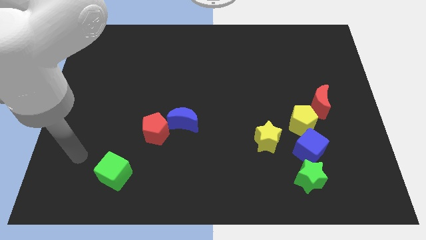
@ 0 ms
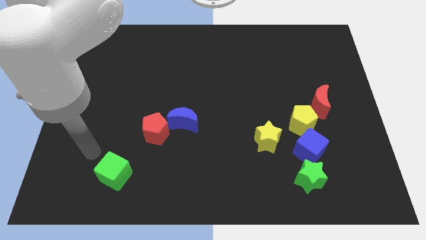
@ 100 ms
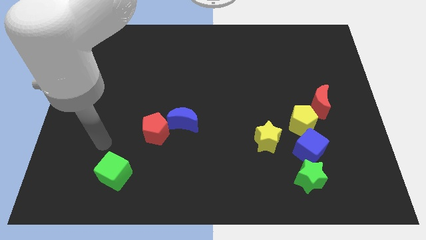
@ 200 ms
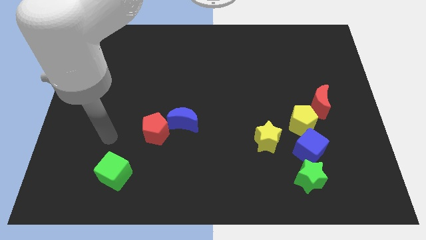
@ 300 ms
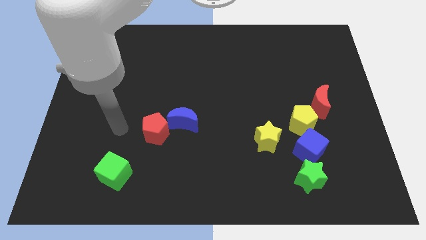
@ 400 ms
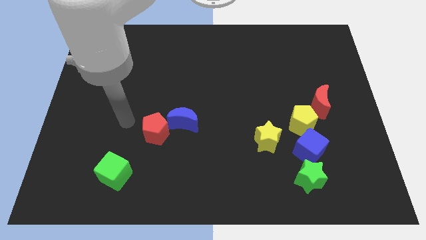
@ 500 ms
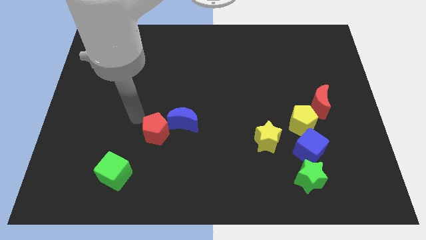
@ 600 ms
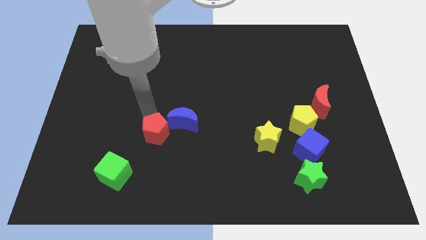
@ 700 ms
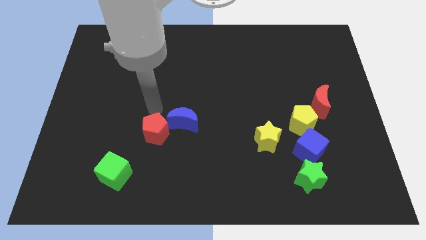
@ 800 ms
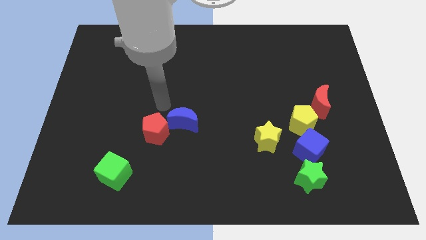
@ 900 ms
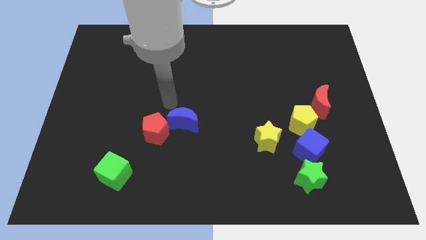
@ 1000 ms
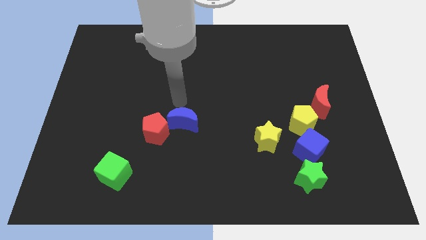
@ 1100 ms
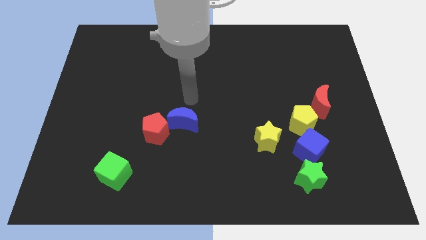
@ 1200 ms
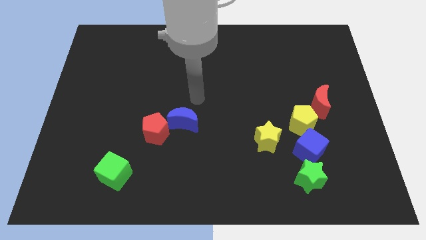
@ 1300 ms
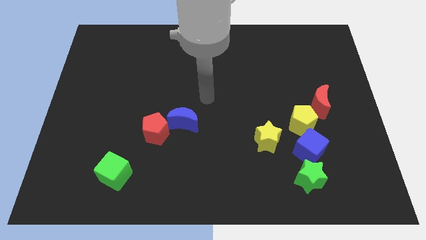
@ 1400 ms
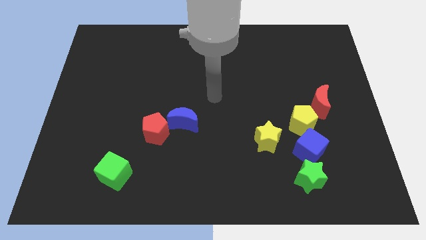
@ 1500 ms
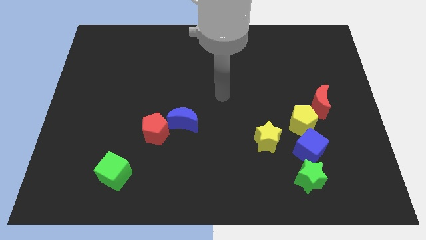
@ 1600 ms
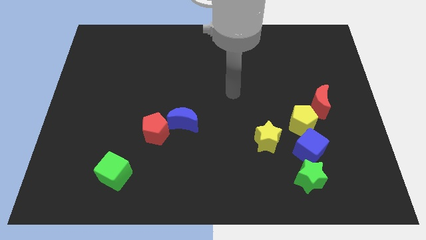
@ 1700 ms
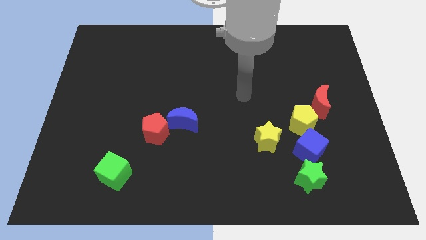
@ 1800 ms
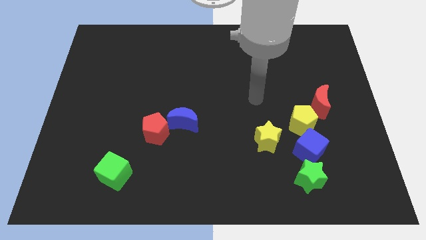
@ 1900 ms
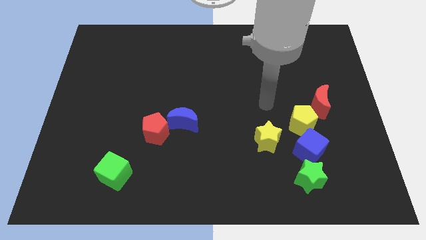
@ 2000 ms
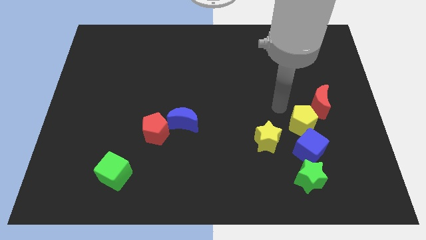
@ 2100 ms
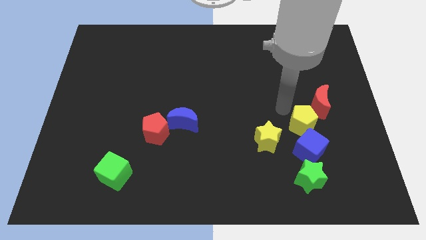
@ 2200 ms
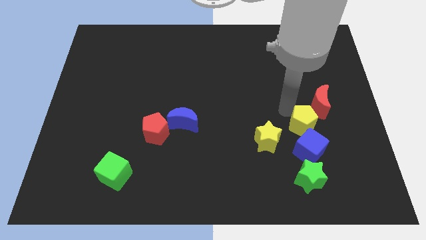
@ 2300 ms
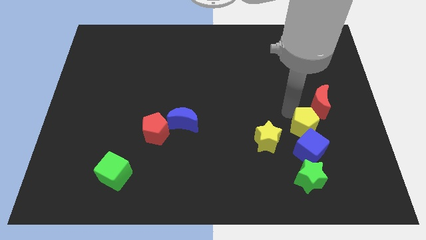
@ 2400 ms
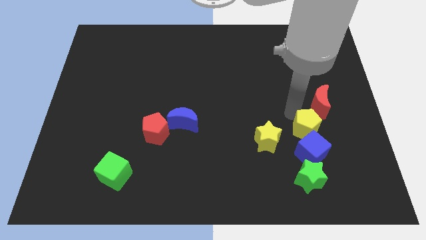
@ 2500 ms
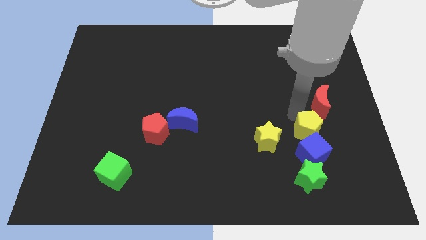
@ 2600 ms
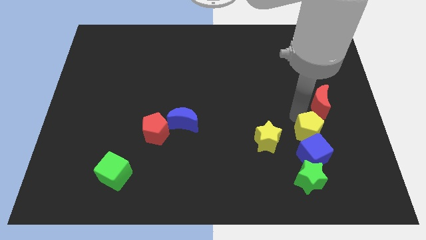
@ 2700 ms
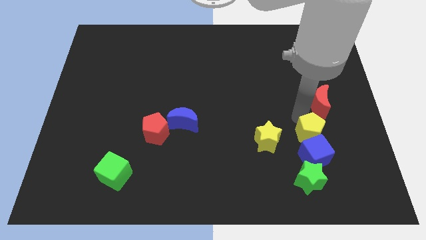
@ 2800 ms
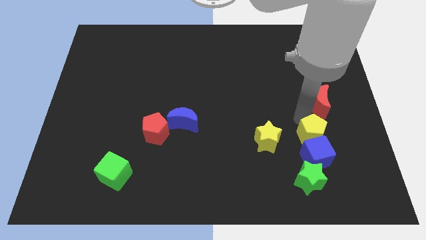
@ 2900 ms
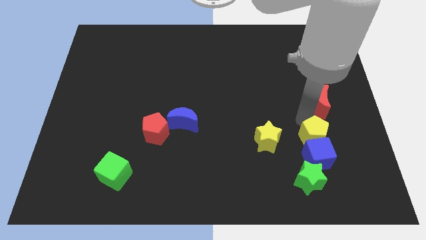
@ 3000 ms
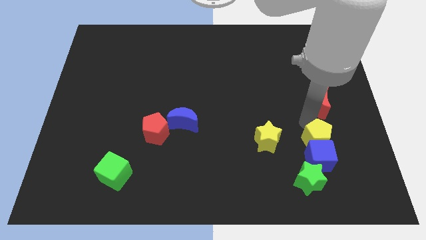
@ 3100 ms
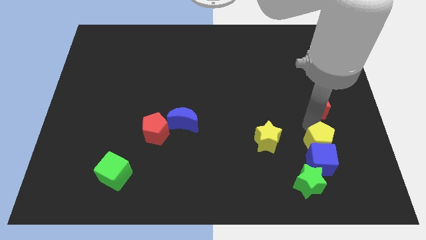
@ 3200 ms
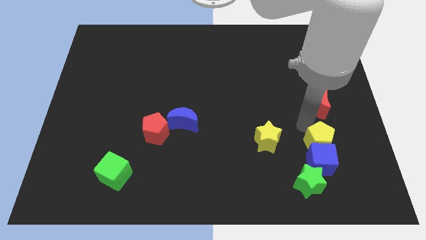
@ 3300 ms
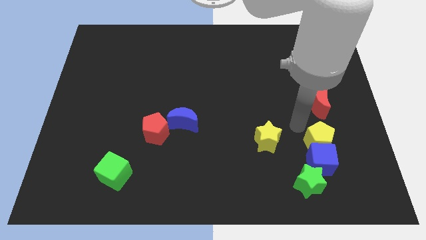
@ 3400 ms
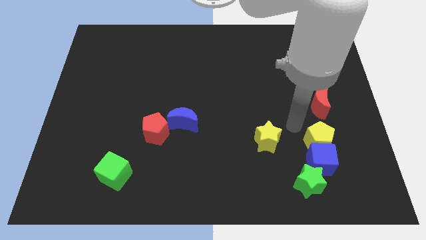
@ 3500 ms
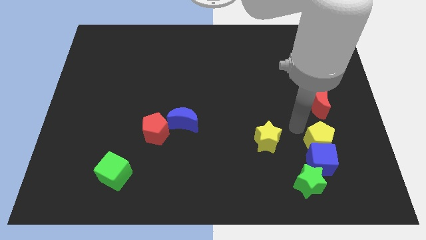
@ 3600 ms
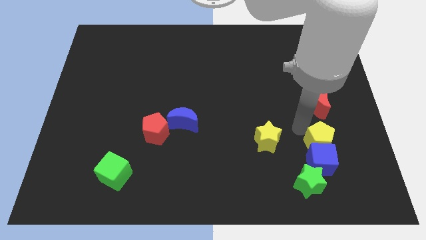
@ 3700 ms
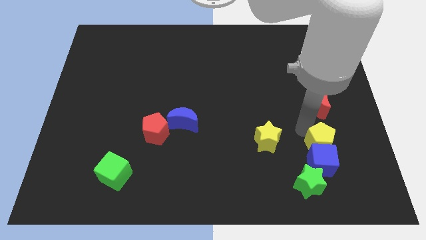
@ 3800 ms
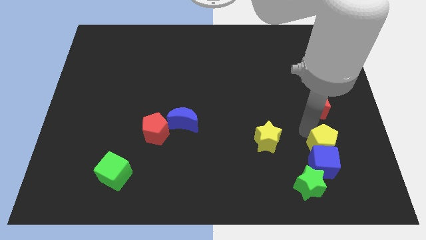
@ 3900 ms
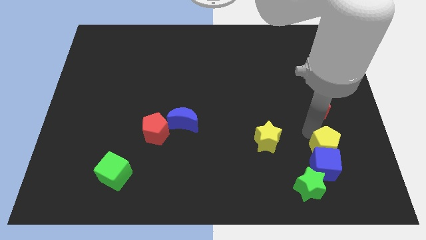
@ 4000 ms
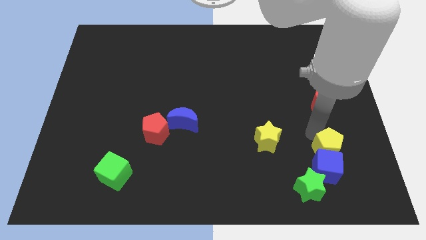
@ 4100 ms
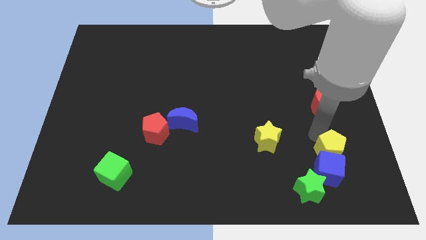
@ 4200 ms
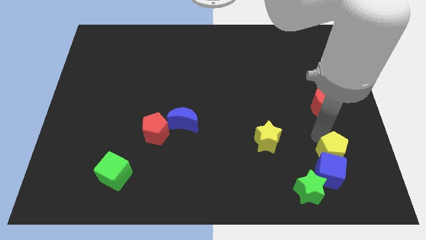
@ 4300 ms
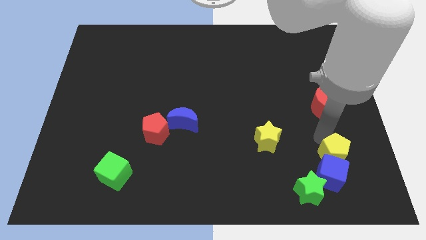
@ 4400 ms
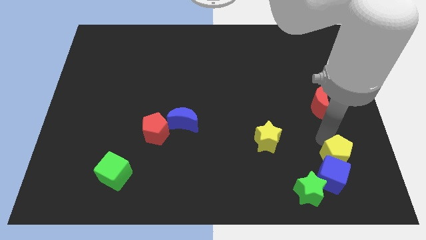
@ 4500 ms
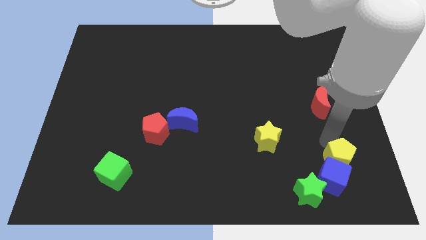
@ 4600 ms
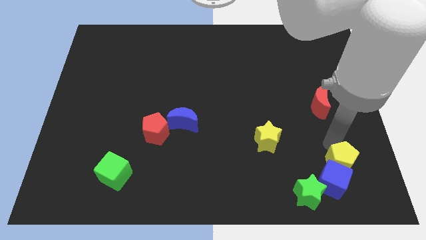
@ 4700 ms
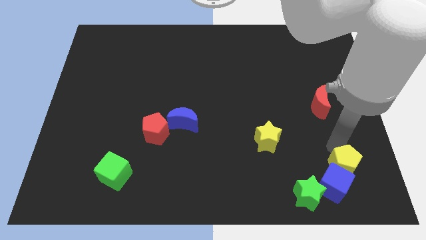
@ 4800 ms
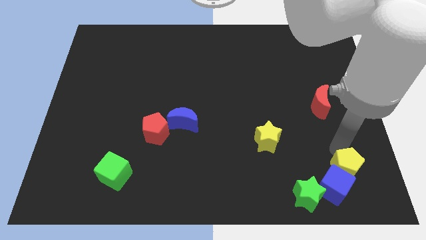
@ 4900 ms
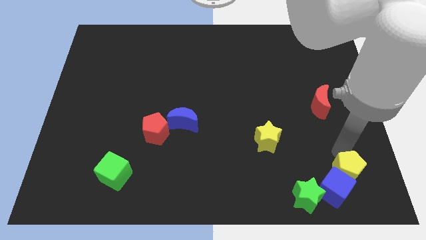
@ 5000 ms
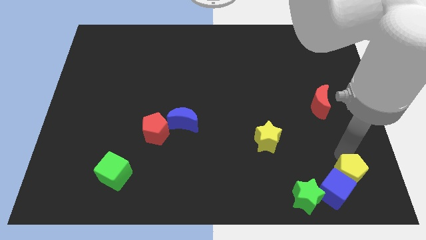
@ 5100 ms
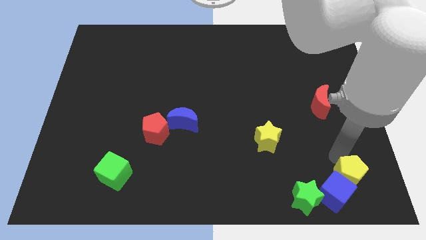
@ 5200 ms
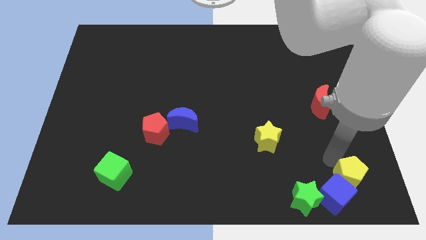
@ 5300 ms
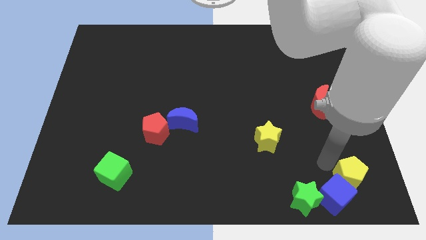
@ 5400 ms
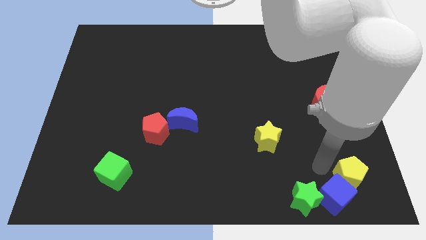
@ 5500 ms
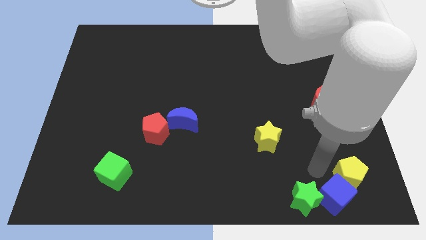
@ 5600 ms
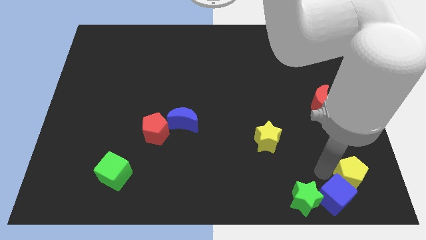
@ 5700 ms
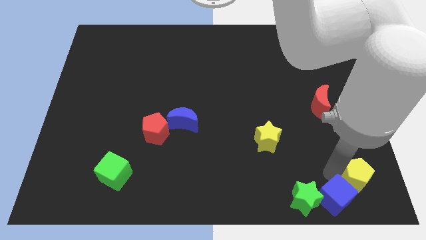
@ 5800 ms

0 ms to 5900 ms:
slide the yellow pentagon to the bottom right corner

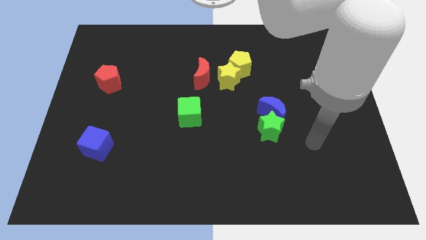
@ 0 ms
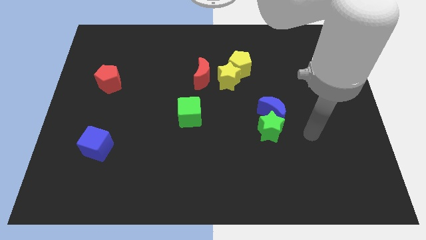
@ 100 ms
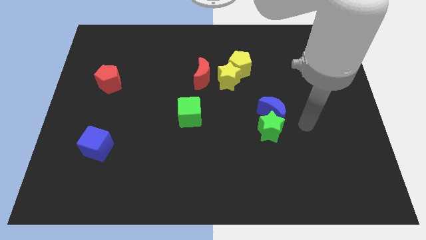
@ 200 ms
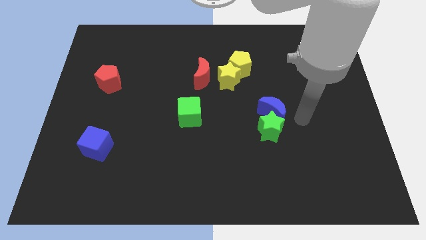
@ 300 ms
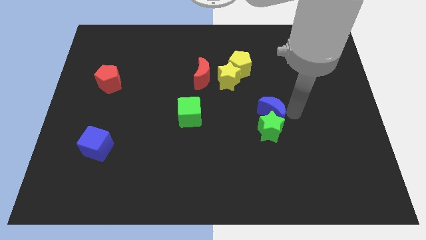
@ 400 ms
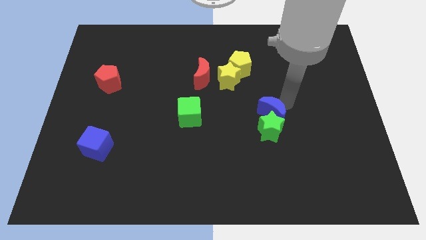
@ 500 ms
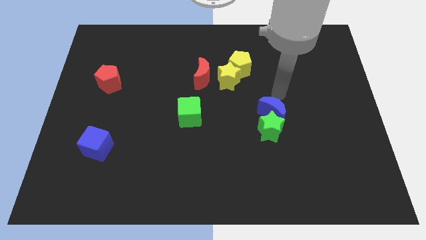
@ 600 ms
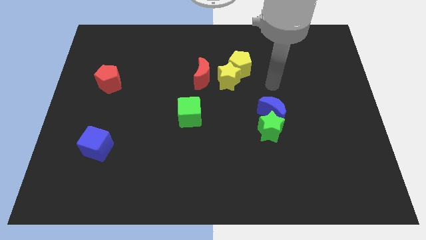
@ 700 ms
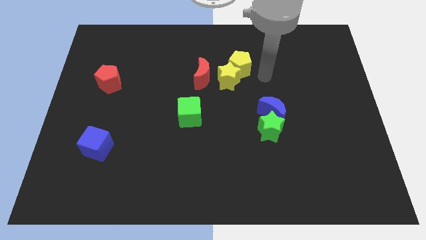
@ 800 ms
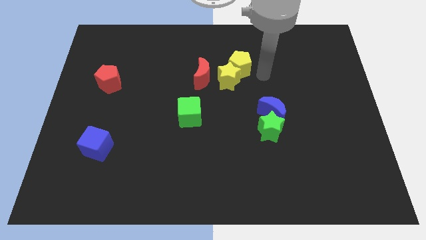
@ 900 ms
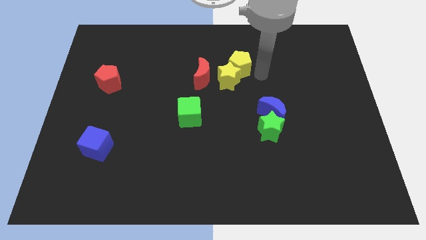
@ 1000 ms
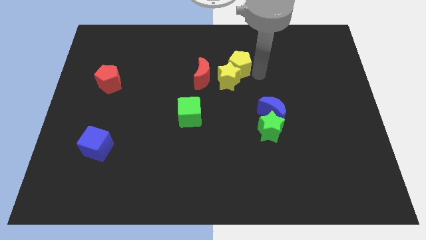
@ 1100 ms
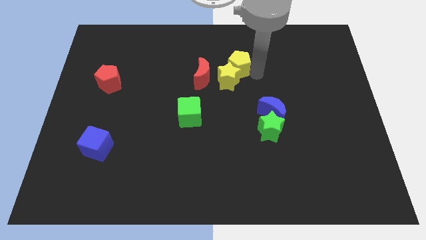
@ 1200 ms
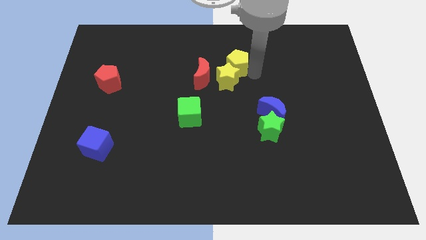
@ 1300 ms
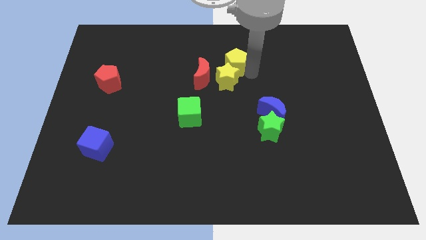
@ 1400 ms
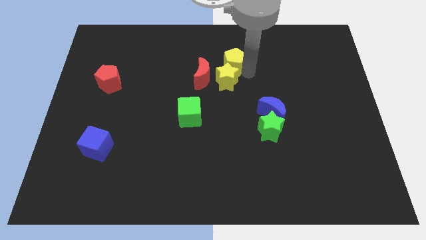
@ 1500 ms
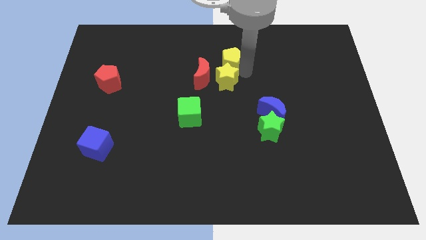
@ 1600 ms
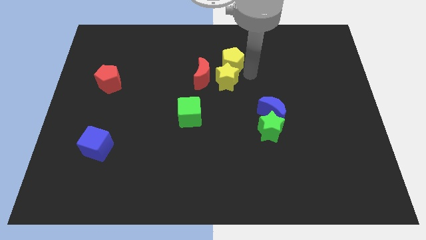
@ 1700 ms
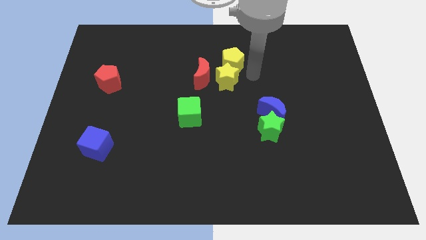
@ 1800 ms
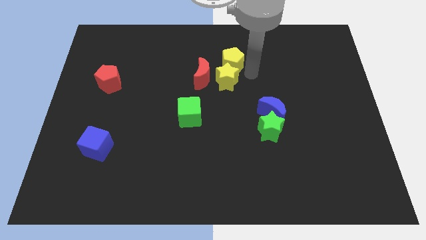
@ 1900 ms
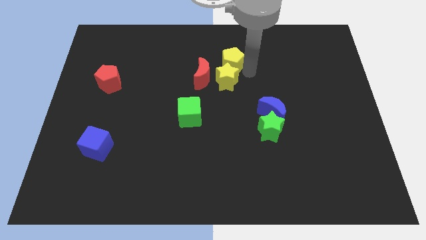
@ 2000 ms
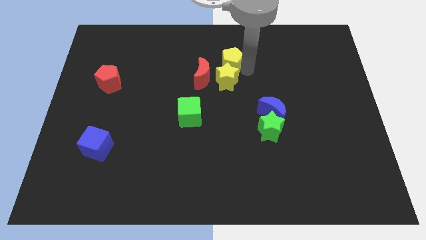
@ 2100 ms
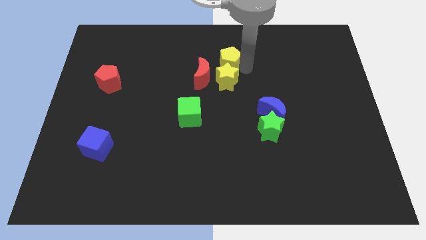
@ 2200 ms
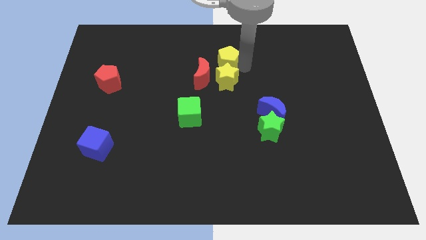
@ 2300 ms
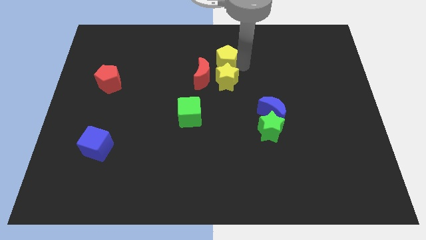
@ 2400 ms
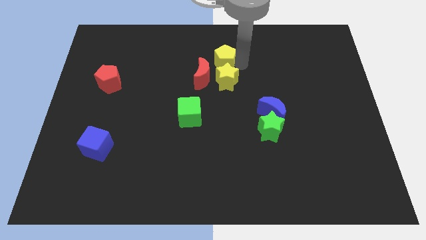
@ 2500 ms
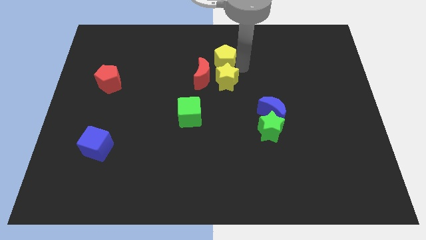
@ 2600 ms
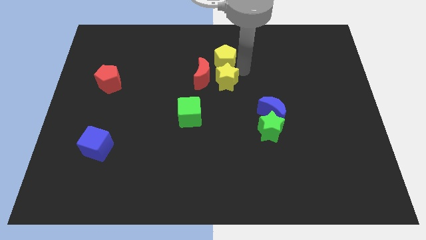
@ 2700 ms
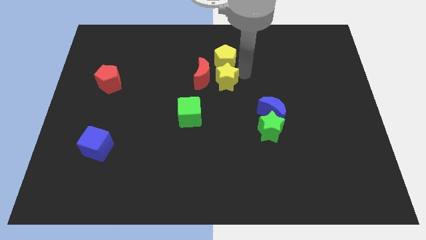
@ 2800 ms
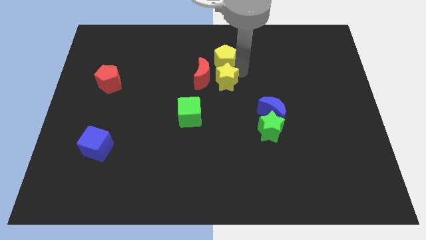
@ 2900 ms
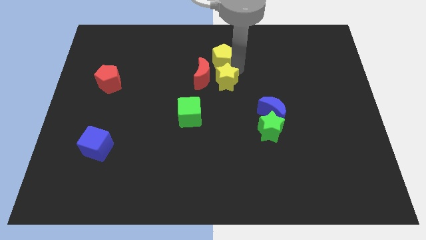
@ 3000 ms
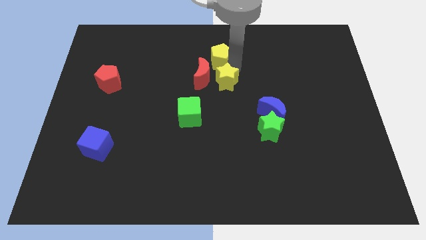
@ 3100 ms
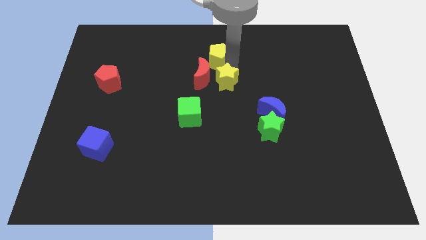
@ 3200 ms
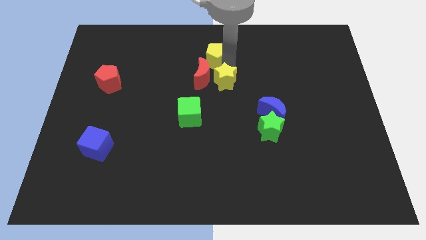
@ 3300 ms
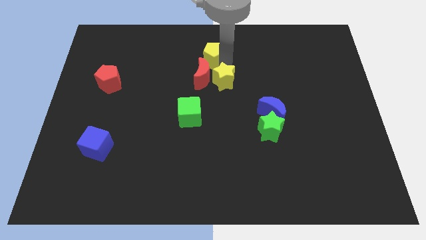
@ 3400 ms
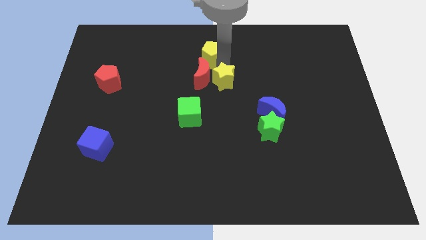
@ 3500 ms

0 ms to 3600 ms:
put the yellow pentagon to the towards your base
